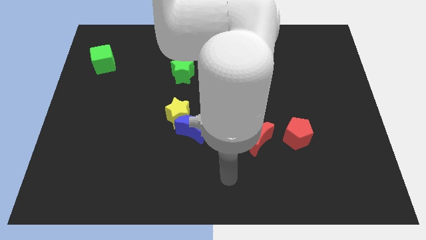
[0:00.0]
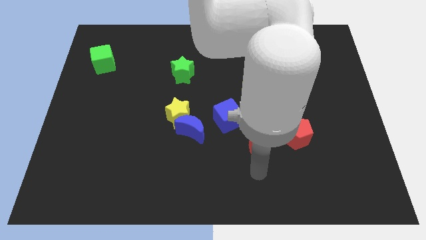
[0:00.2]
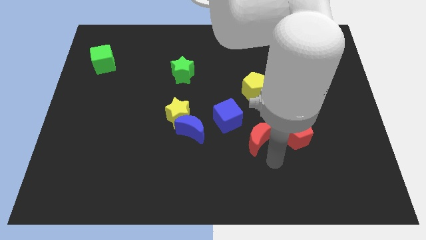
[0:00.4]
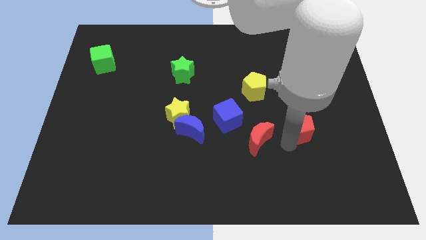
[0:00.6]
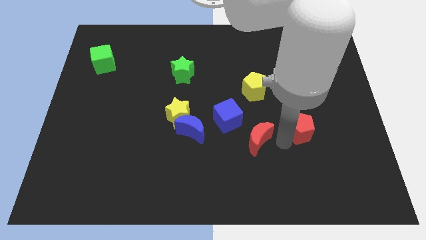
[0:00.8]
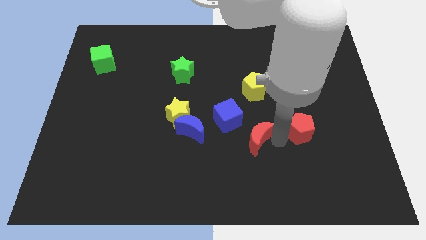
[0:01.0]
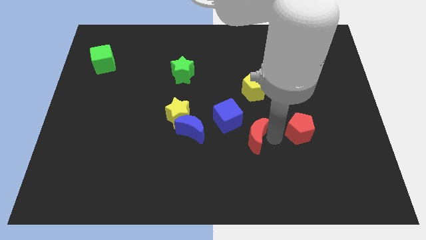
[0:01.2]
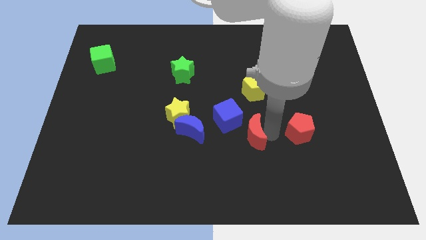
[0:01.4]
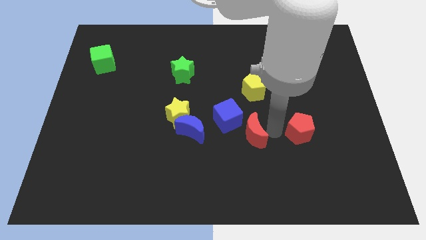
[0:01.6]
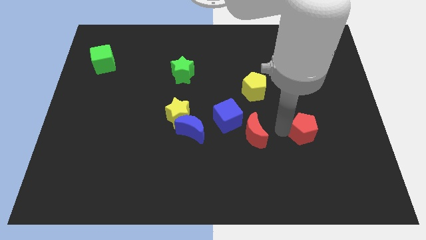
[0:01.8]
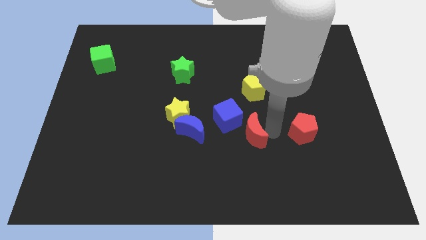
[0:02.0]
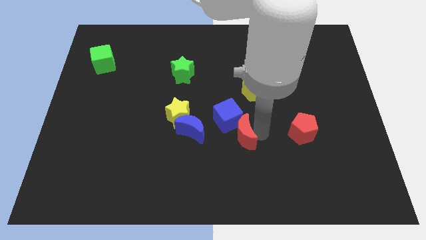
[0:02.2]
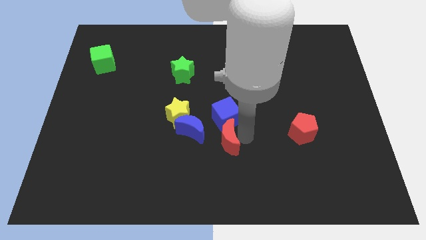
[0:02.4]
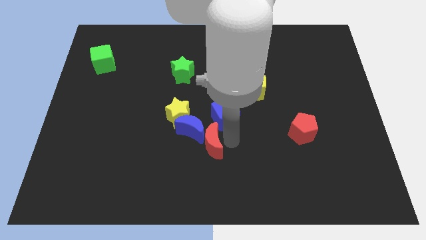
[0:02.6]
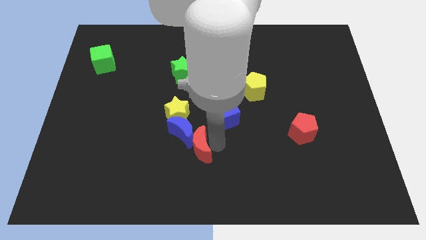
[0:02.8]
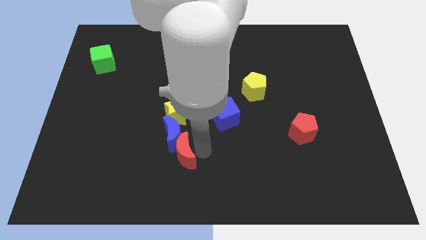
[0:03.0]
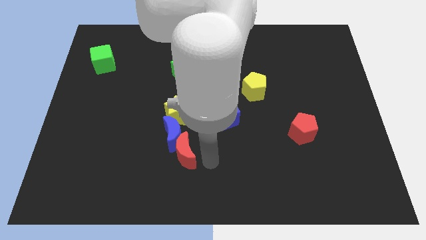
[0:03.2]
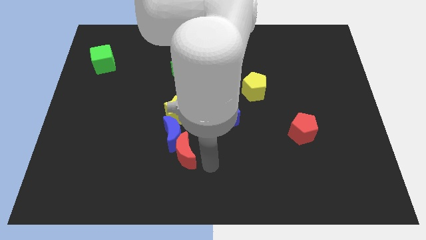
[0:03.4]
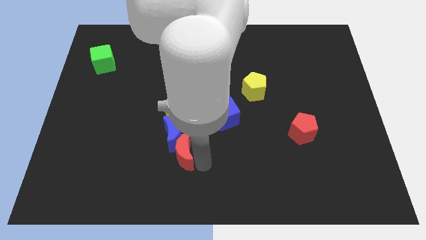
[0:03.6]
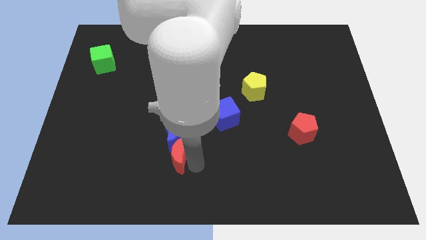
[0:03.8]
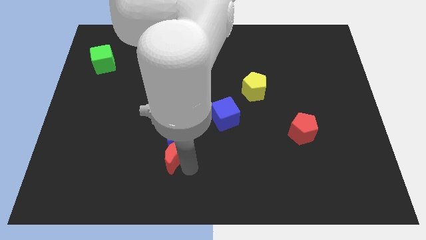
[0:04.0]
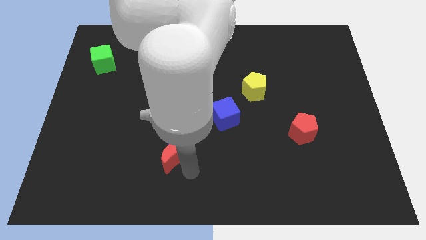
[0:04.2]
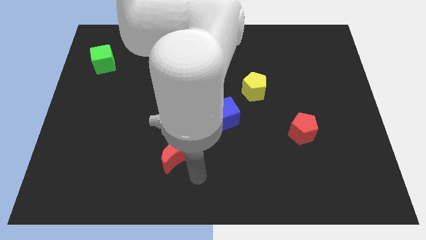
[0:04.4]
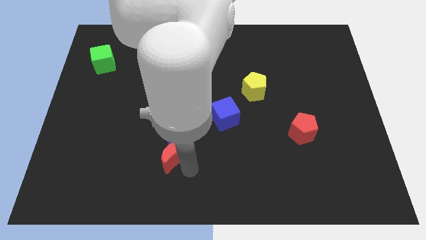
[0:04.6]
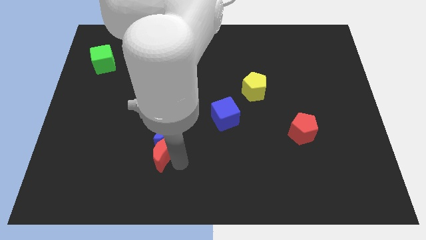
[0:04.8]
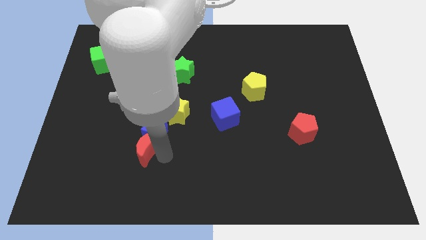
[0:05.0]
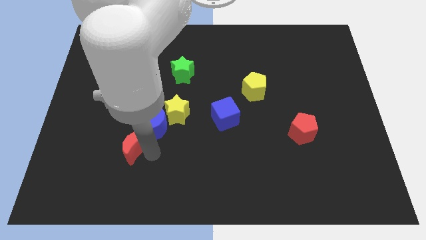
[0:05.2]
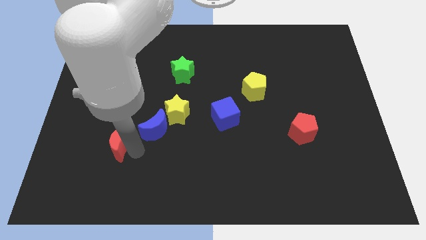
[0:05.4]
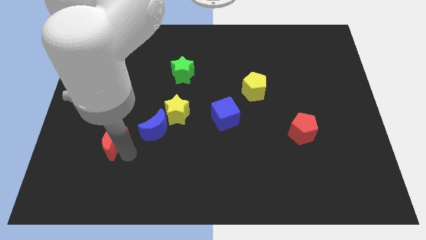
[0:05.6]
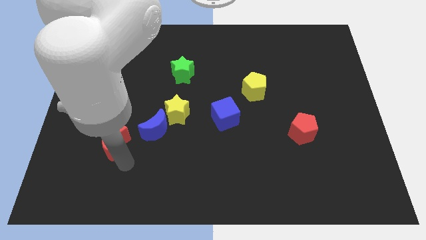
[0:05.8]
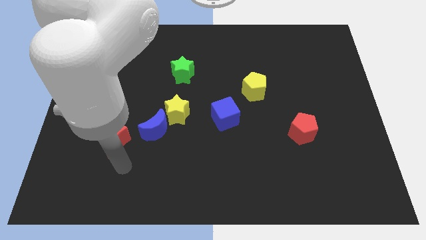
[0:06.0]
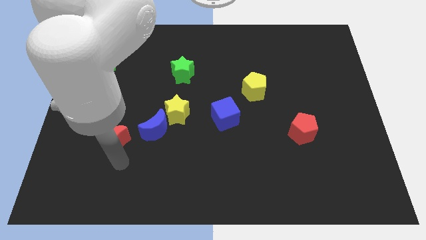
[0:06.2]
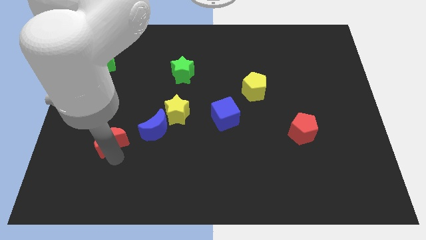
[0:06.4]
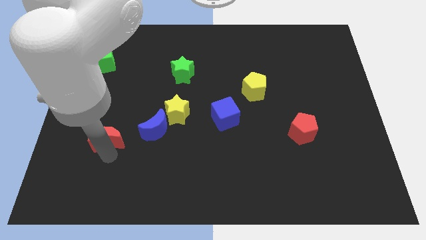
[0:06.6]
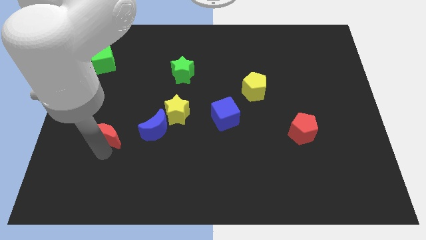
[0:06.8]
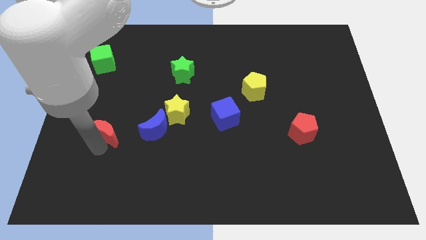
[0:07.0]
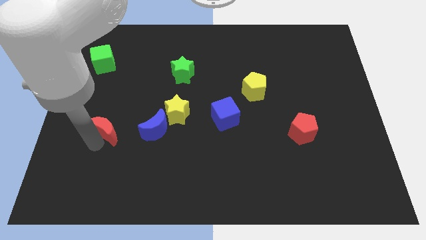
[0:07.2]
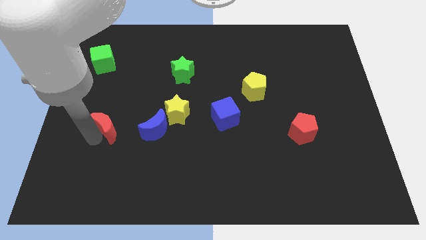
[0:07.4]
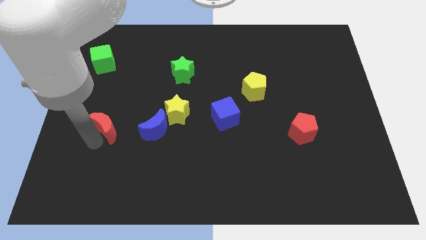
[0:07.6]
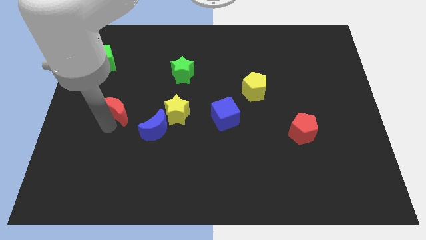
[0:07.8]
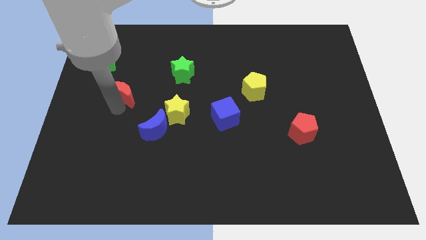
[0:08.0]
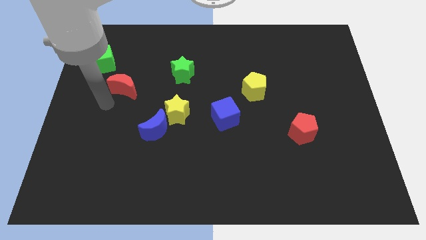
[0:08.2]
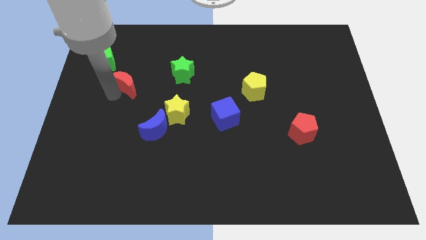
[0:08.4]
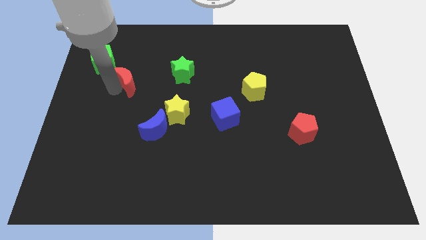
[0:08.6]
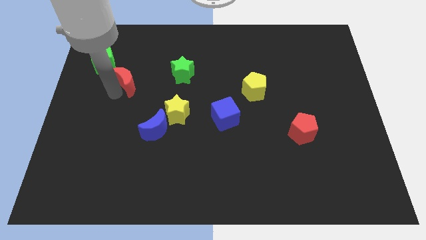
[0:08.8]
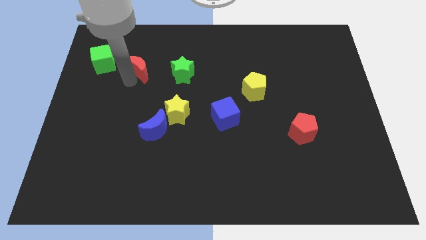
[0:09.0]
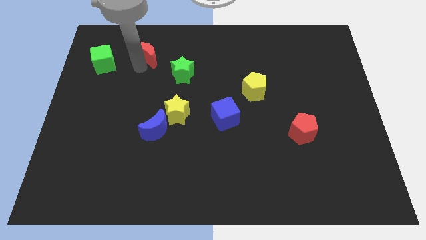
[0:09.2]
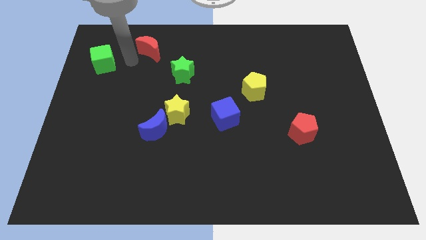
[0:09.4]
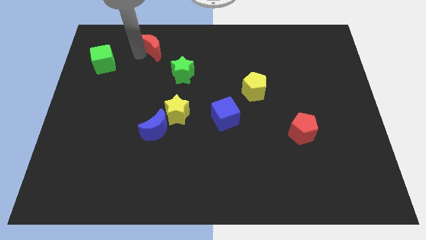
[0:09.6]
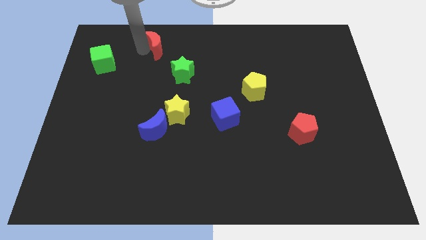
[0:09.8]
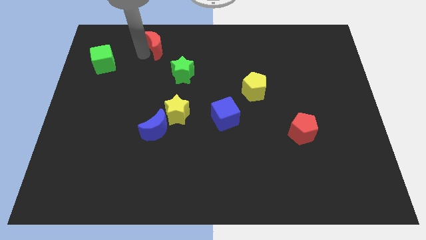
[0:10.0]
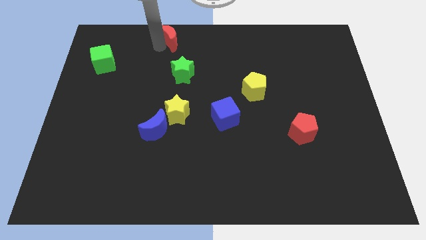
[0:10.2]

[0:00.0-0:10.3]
slide the red moon to the top side

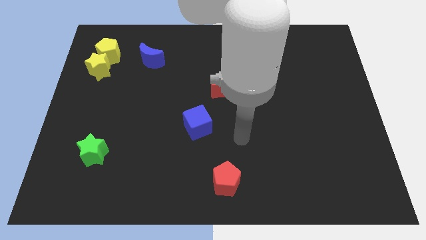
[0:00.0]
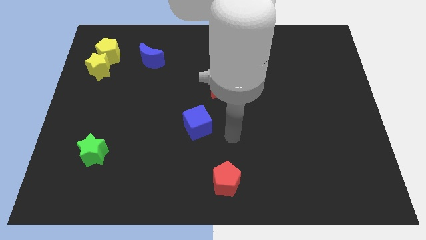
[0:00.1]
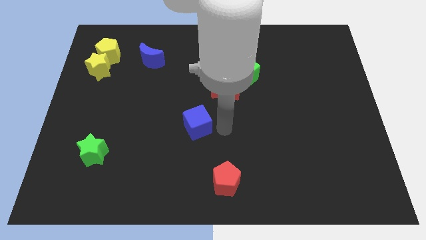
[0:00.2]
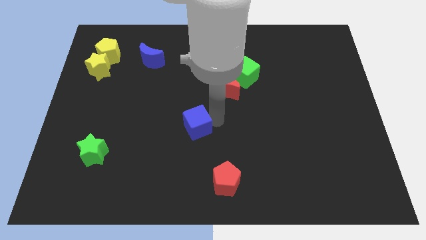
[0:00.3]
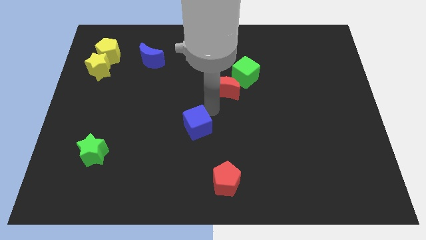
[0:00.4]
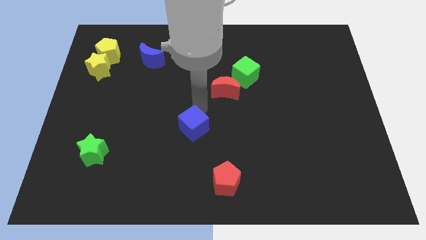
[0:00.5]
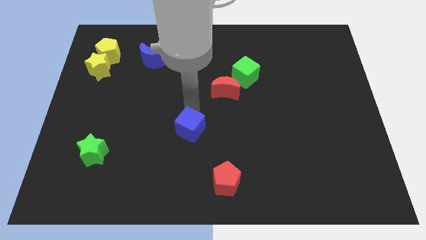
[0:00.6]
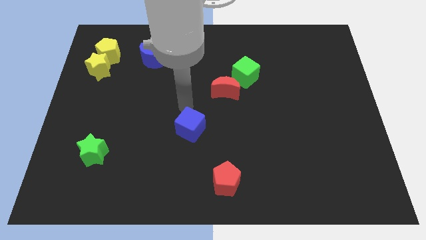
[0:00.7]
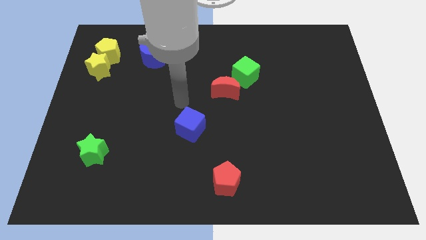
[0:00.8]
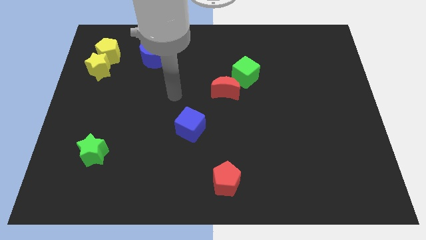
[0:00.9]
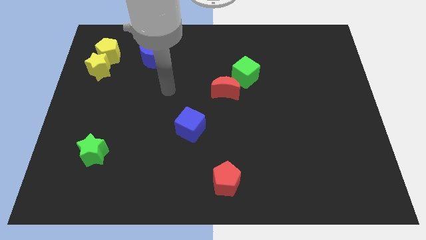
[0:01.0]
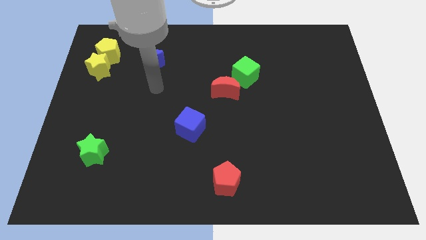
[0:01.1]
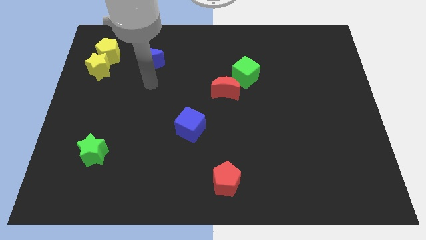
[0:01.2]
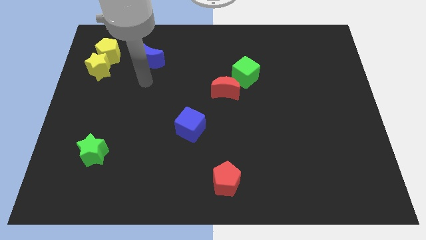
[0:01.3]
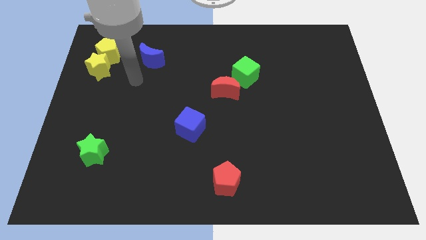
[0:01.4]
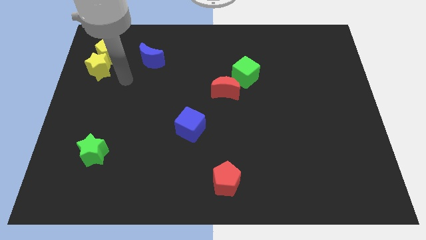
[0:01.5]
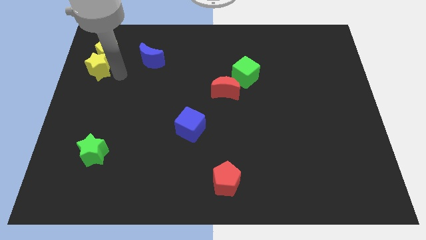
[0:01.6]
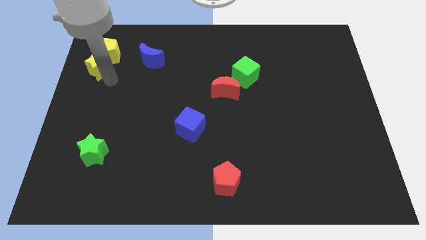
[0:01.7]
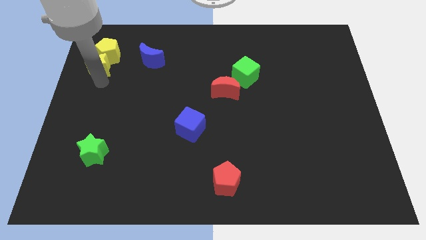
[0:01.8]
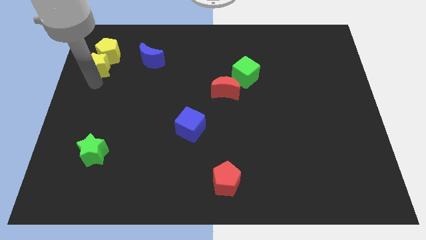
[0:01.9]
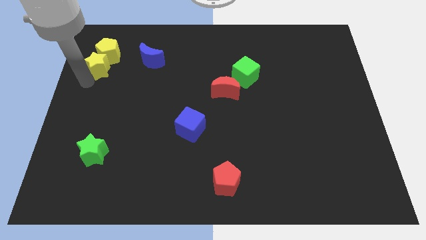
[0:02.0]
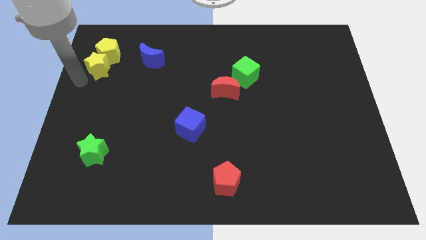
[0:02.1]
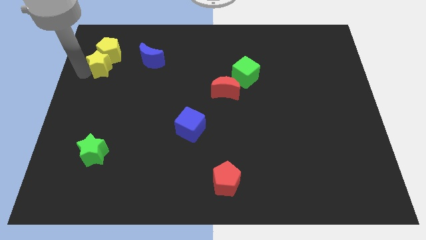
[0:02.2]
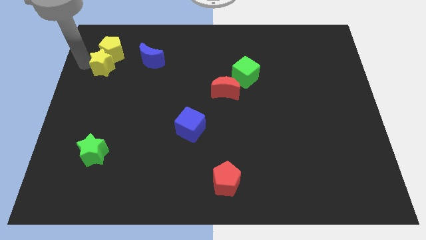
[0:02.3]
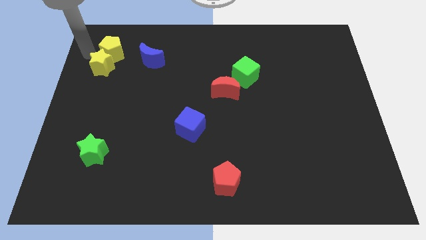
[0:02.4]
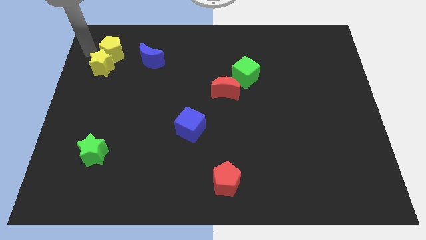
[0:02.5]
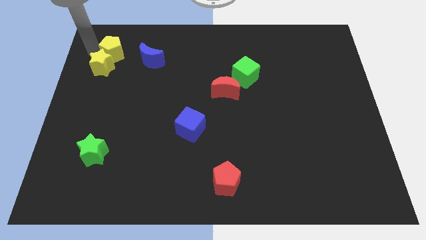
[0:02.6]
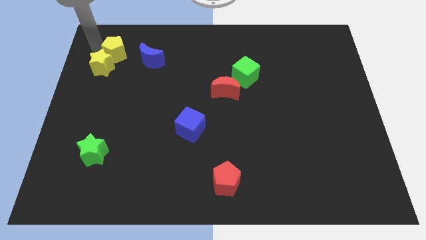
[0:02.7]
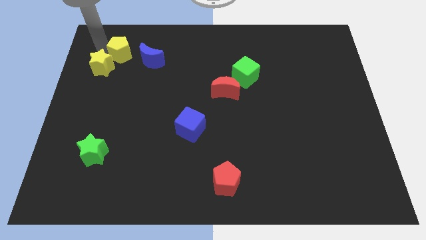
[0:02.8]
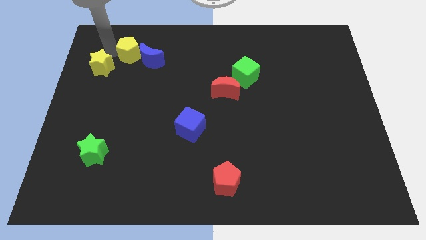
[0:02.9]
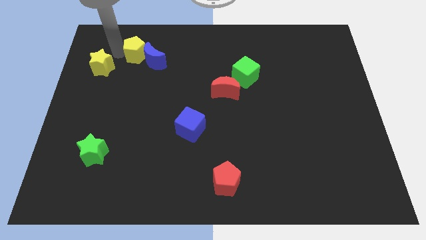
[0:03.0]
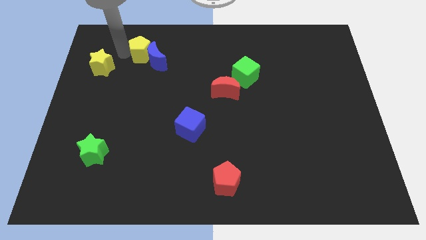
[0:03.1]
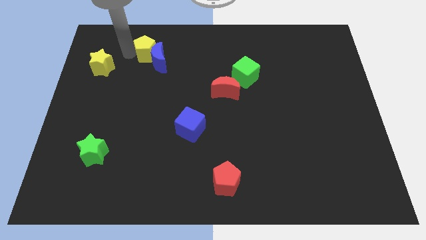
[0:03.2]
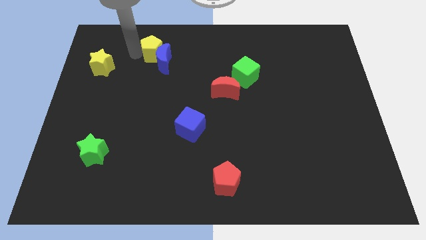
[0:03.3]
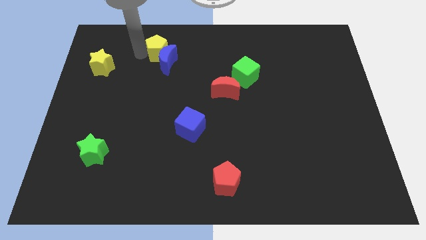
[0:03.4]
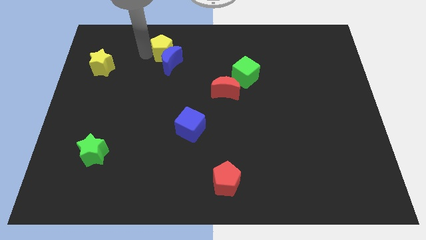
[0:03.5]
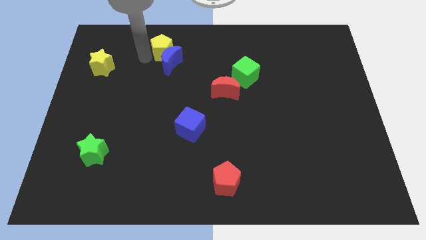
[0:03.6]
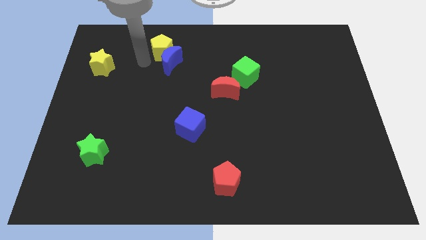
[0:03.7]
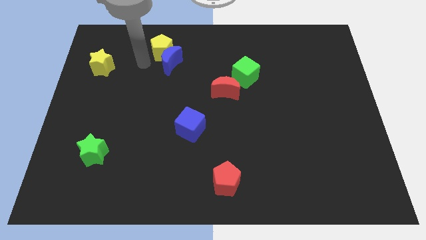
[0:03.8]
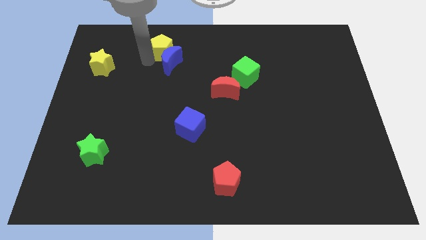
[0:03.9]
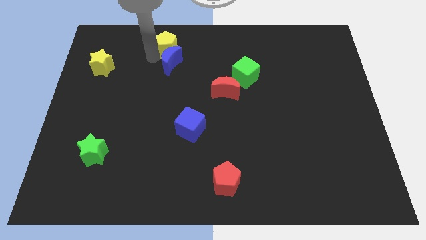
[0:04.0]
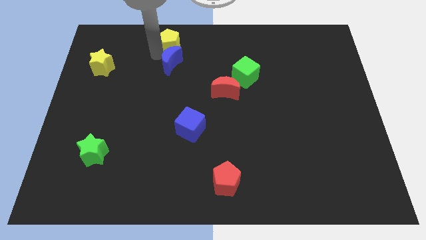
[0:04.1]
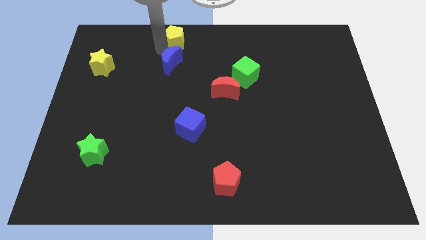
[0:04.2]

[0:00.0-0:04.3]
put the yellow pentagon to the towards your base
